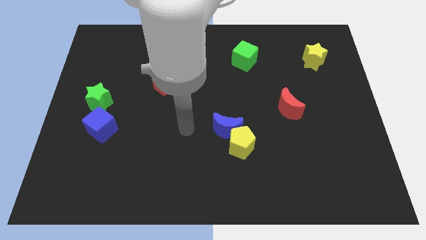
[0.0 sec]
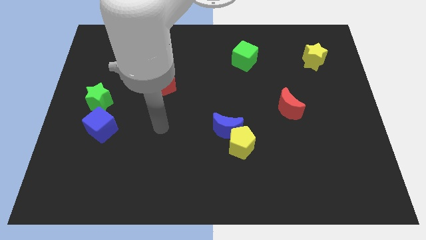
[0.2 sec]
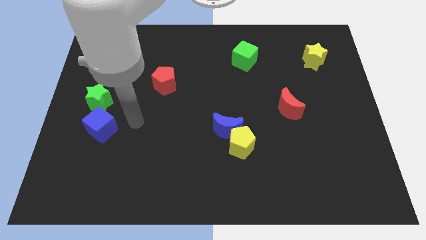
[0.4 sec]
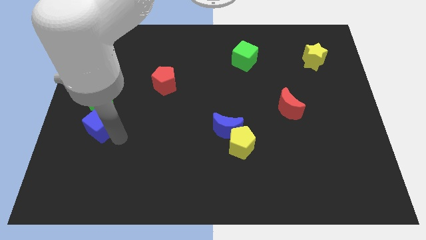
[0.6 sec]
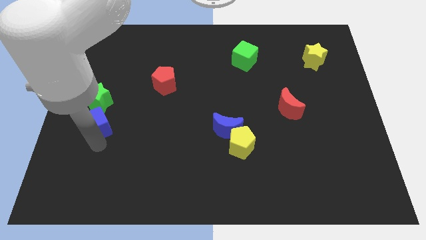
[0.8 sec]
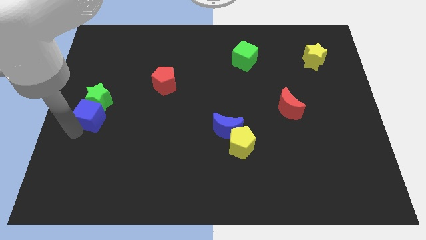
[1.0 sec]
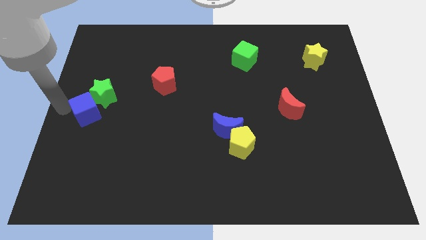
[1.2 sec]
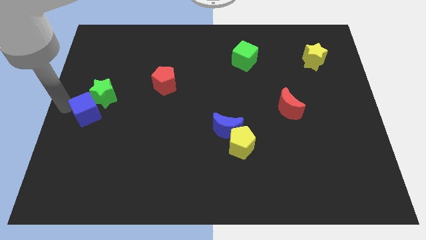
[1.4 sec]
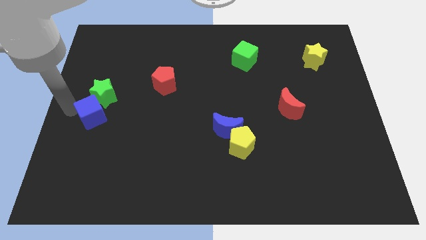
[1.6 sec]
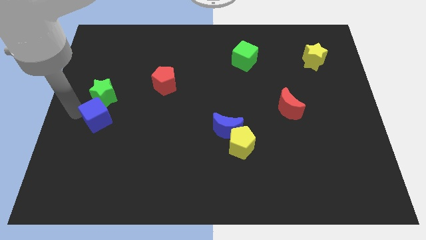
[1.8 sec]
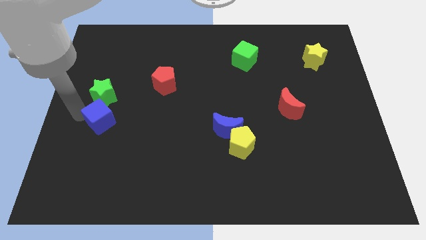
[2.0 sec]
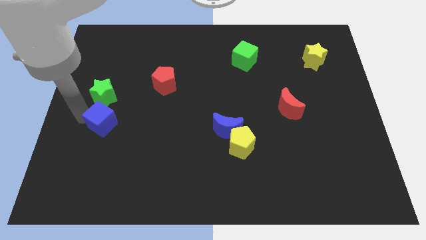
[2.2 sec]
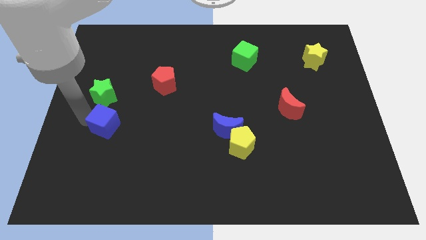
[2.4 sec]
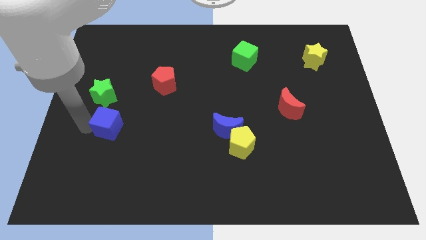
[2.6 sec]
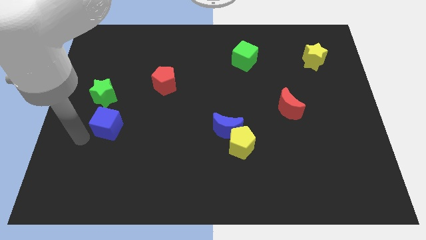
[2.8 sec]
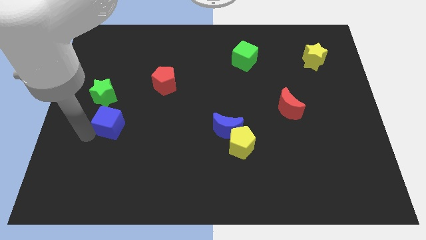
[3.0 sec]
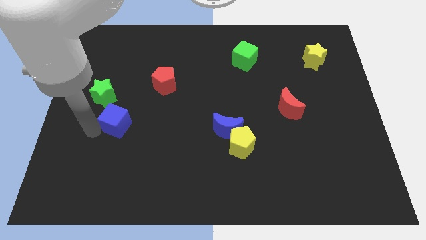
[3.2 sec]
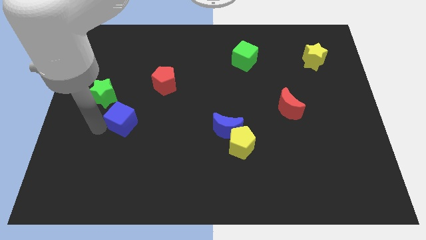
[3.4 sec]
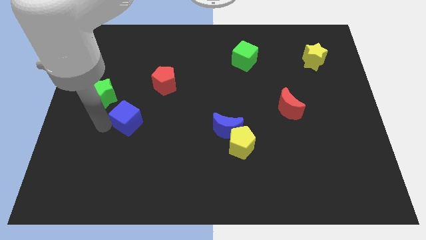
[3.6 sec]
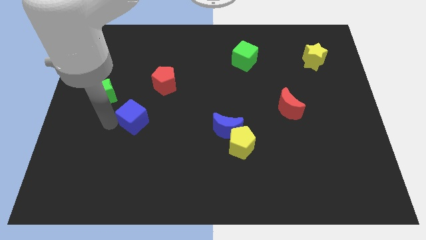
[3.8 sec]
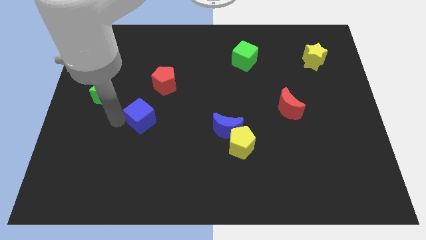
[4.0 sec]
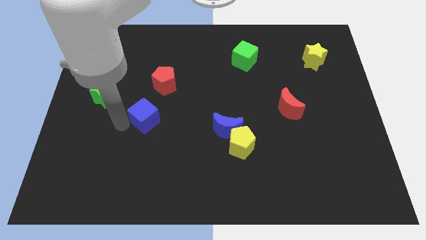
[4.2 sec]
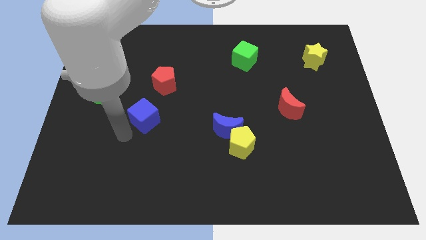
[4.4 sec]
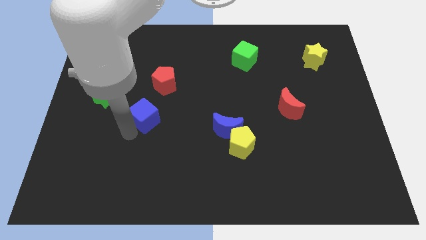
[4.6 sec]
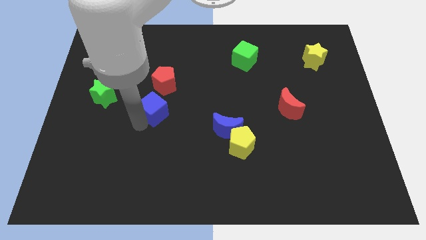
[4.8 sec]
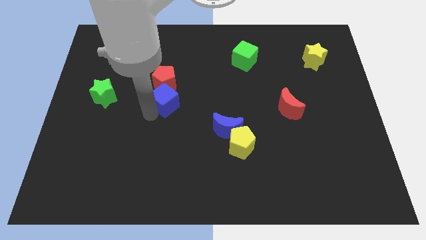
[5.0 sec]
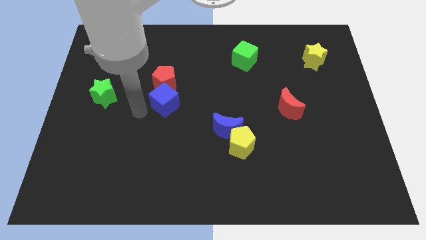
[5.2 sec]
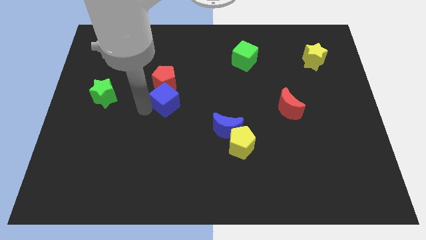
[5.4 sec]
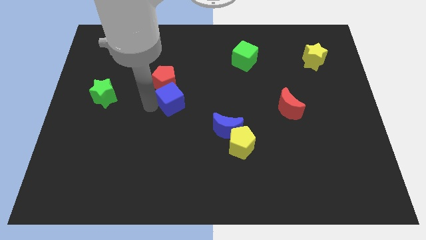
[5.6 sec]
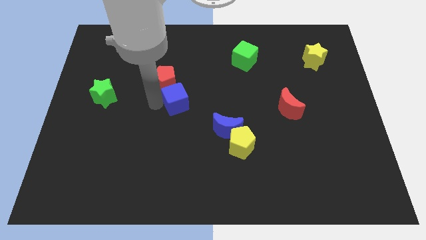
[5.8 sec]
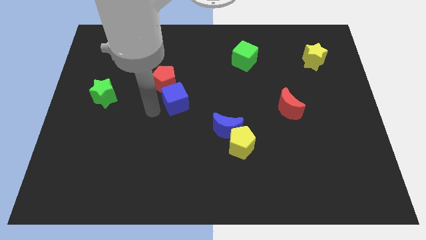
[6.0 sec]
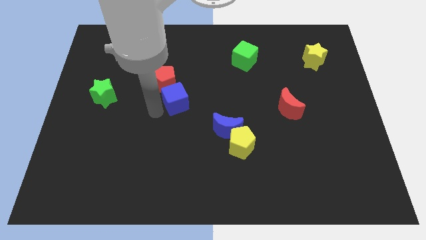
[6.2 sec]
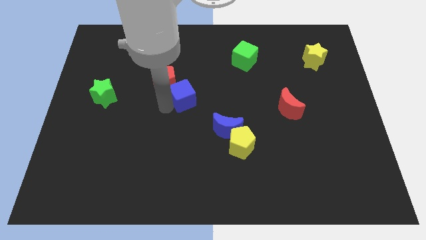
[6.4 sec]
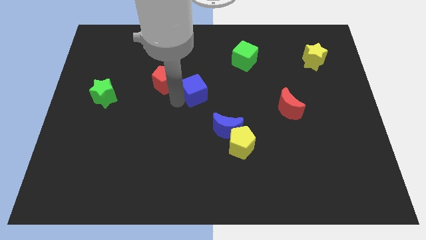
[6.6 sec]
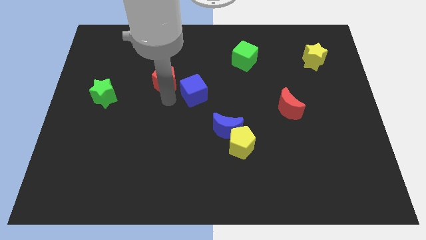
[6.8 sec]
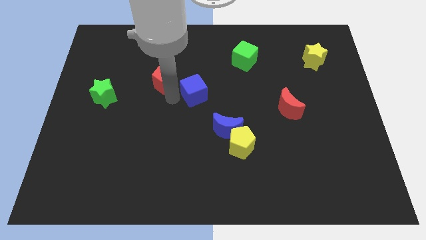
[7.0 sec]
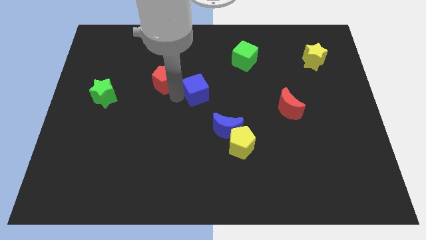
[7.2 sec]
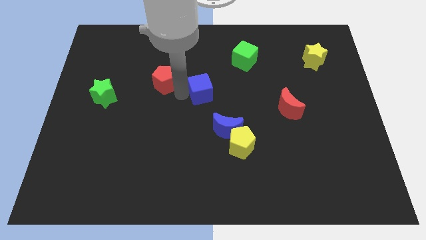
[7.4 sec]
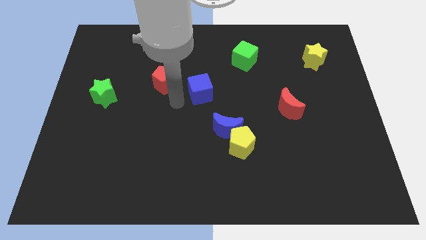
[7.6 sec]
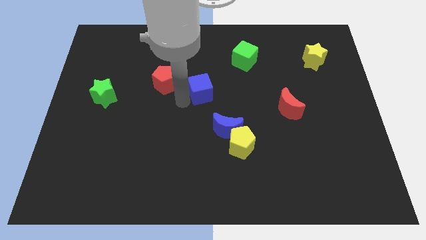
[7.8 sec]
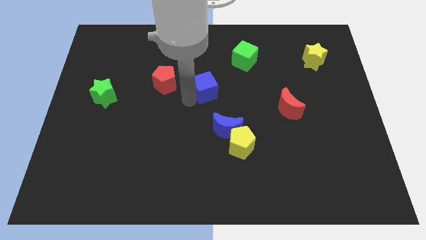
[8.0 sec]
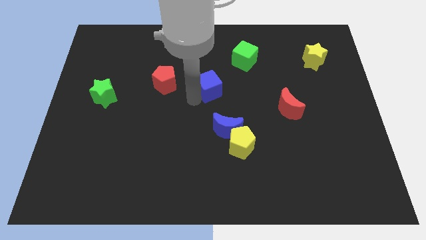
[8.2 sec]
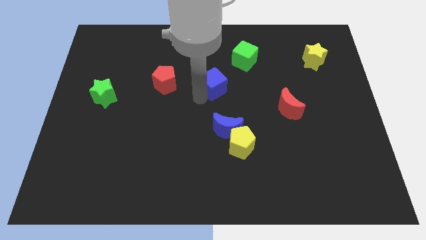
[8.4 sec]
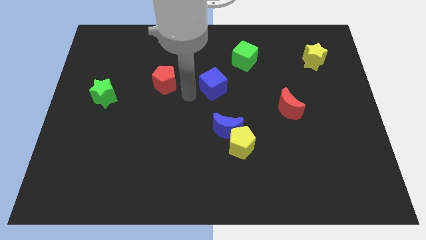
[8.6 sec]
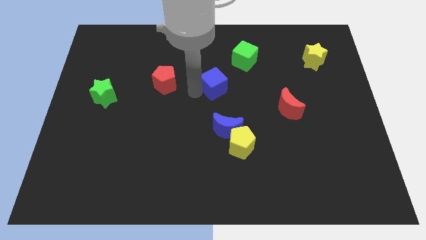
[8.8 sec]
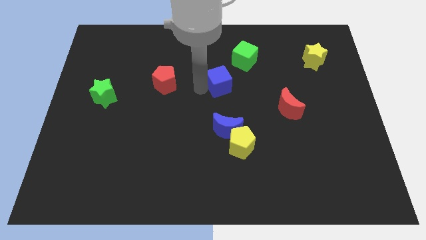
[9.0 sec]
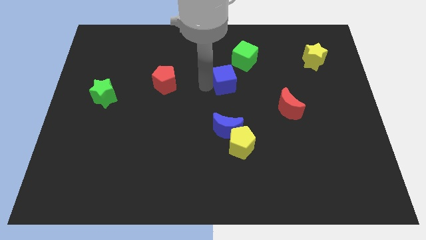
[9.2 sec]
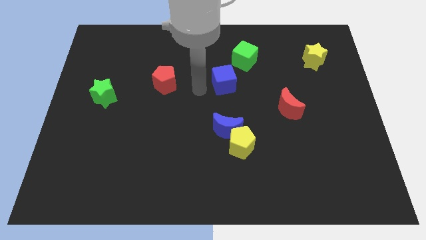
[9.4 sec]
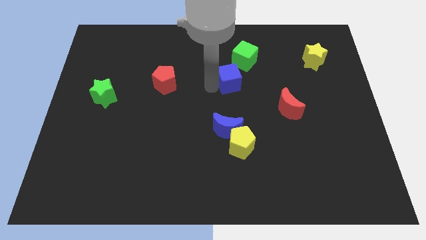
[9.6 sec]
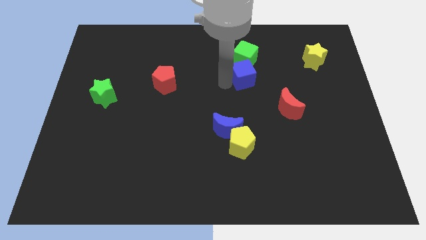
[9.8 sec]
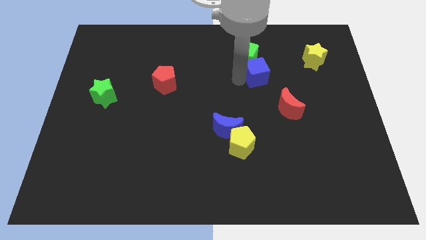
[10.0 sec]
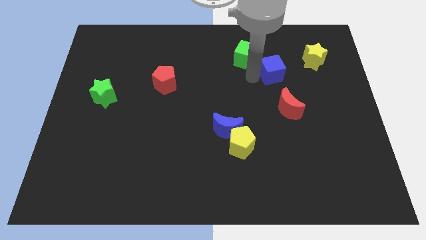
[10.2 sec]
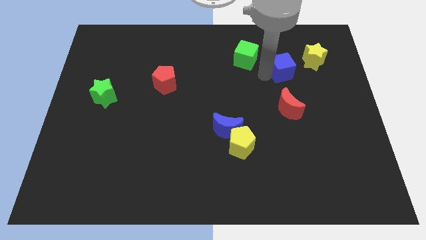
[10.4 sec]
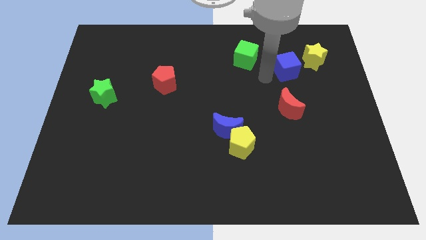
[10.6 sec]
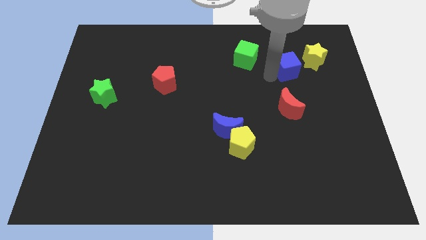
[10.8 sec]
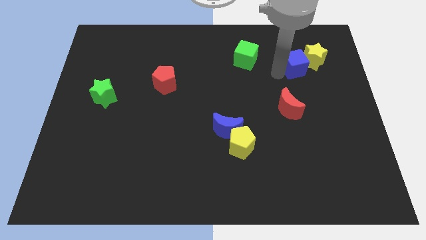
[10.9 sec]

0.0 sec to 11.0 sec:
slide the blue cube to the yellow star

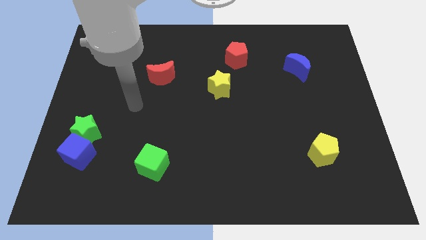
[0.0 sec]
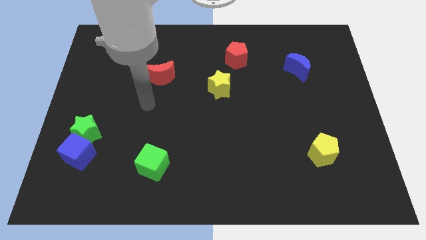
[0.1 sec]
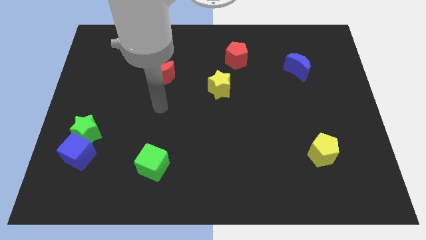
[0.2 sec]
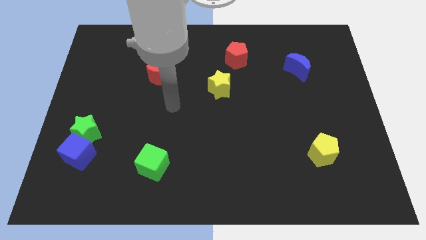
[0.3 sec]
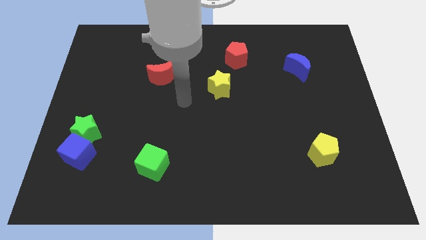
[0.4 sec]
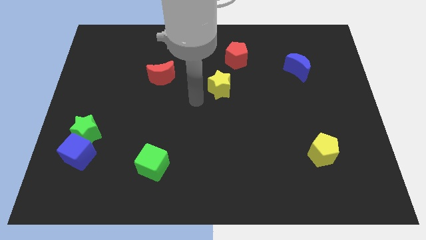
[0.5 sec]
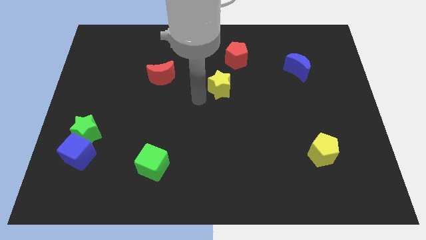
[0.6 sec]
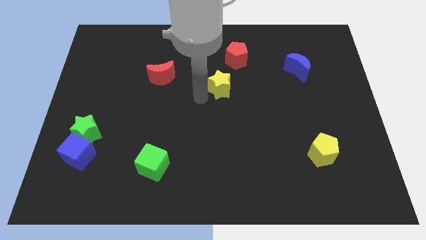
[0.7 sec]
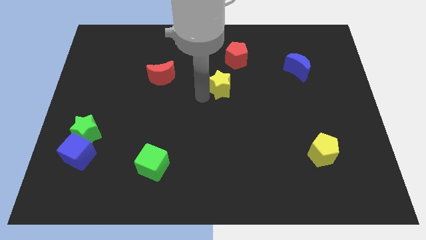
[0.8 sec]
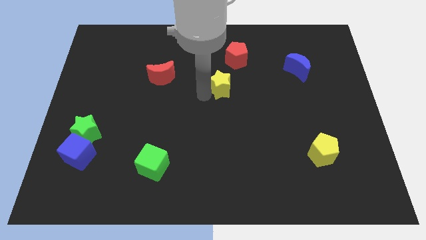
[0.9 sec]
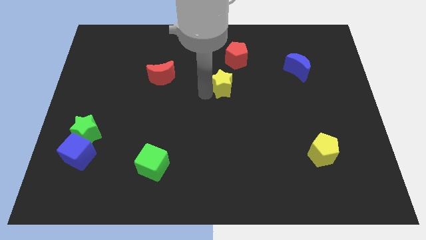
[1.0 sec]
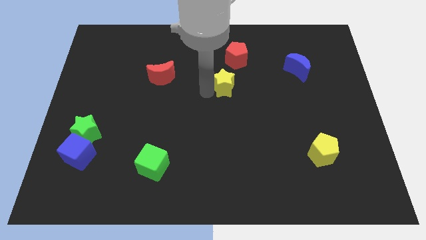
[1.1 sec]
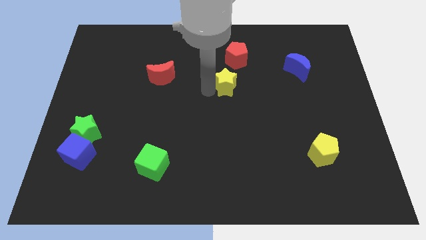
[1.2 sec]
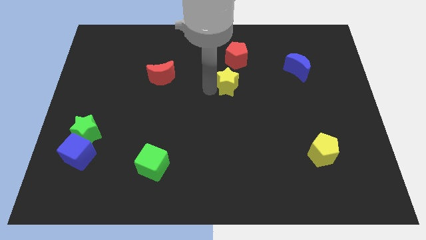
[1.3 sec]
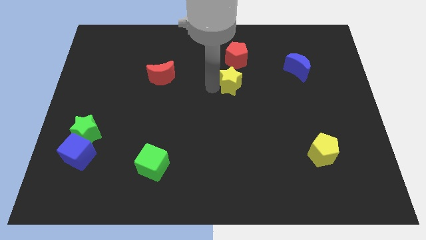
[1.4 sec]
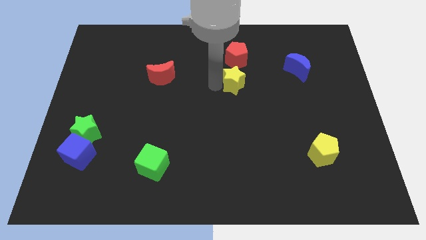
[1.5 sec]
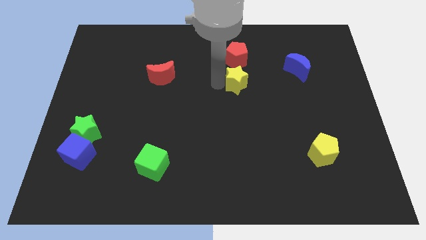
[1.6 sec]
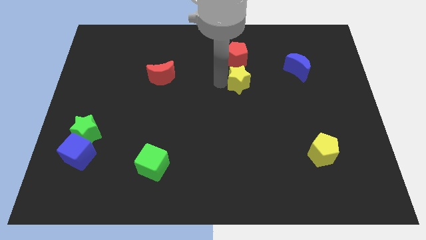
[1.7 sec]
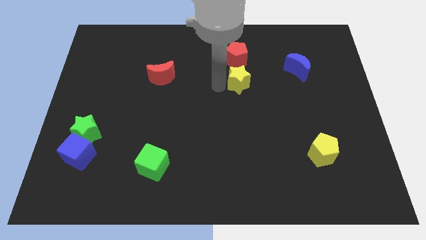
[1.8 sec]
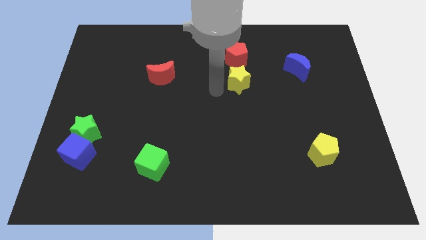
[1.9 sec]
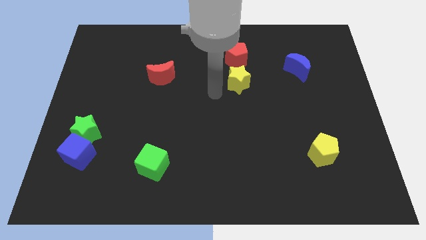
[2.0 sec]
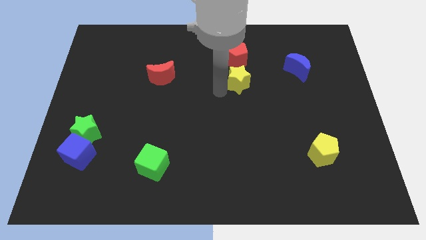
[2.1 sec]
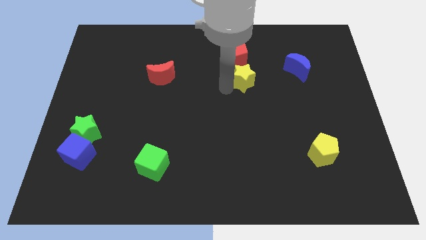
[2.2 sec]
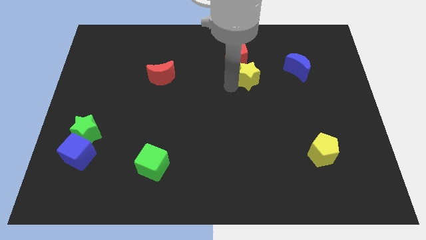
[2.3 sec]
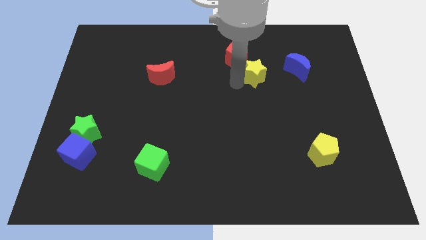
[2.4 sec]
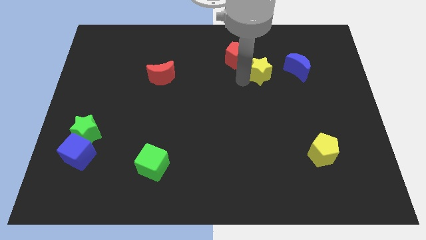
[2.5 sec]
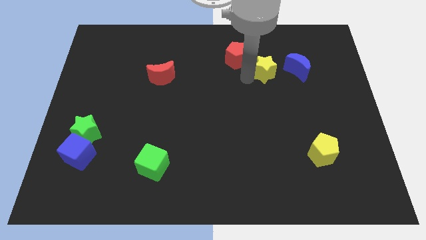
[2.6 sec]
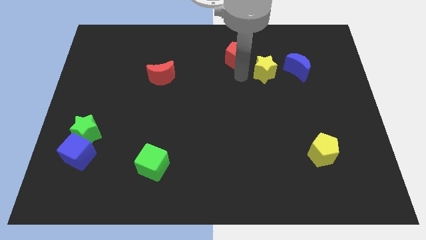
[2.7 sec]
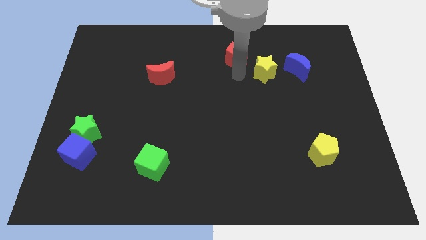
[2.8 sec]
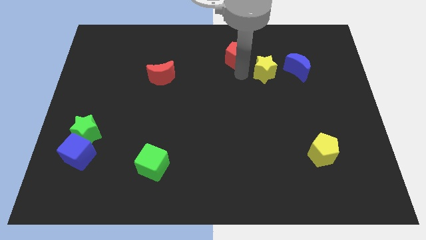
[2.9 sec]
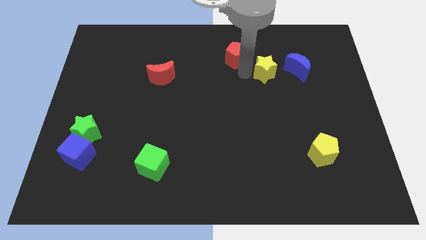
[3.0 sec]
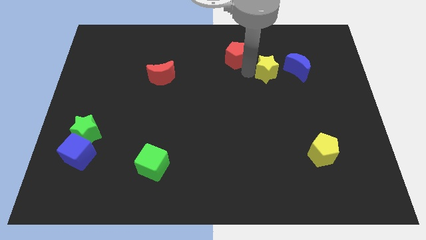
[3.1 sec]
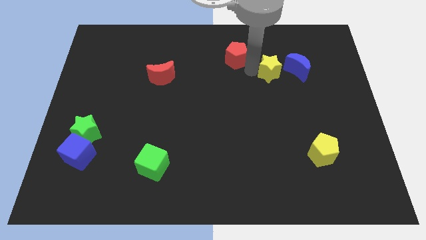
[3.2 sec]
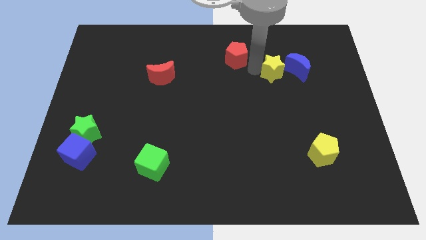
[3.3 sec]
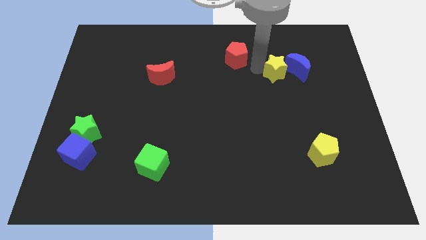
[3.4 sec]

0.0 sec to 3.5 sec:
slide the yellow star towards the blue moon
